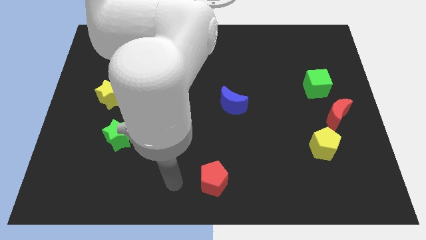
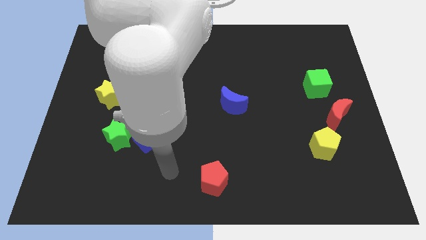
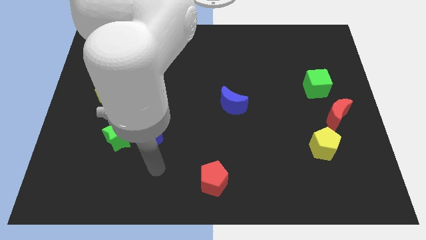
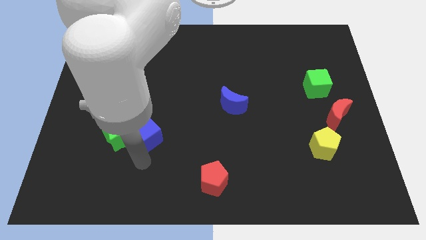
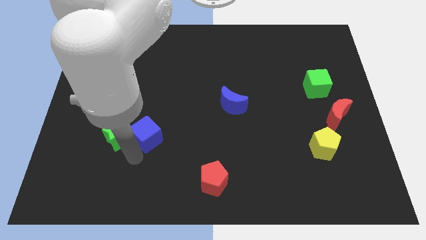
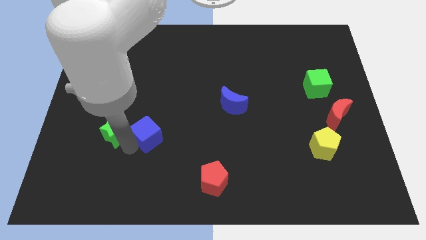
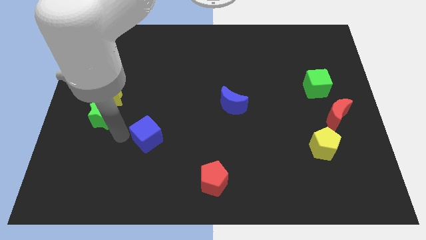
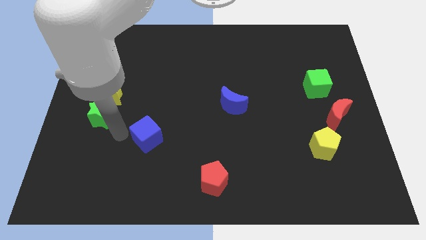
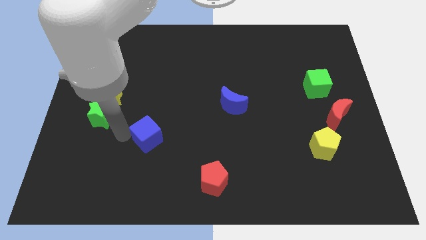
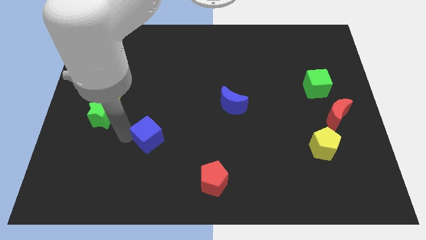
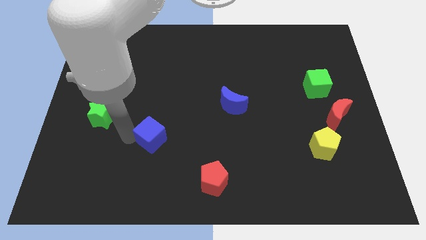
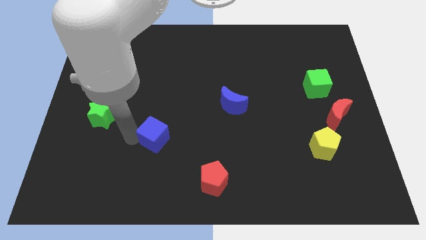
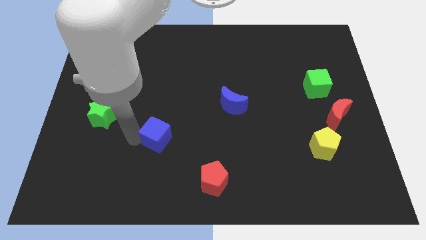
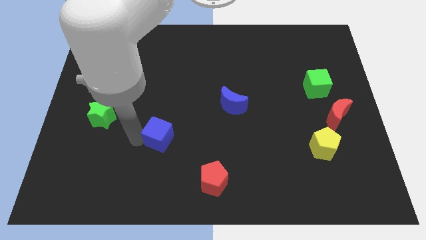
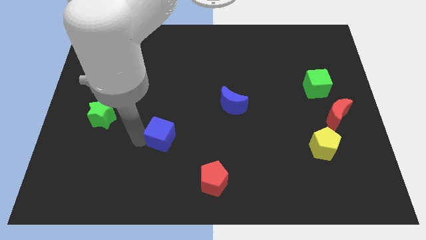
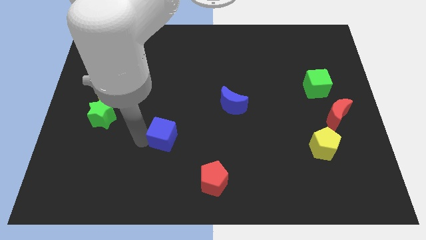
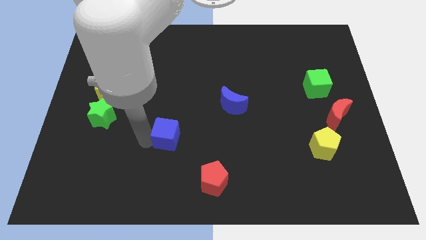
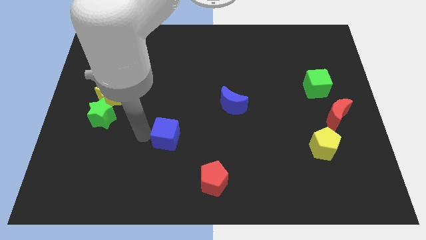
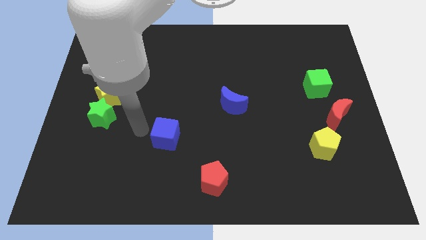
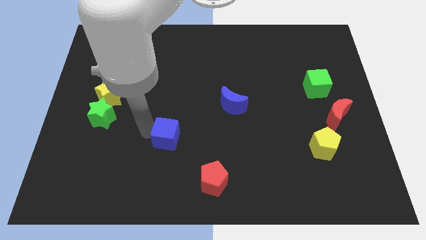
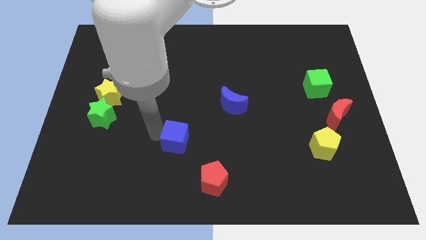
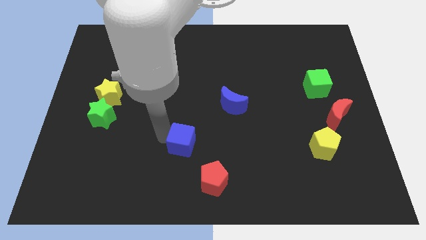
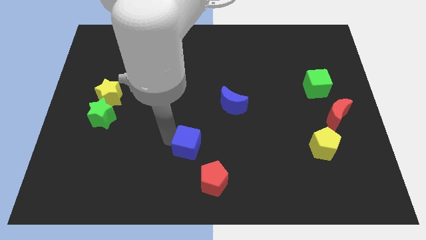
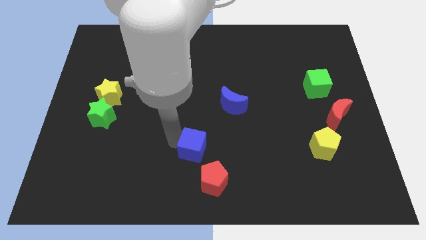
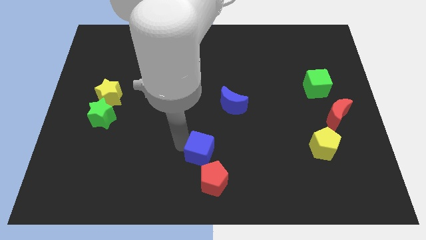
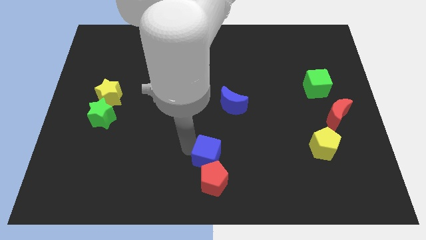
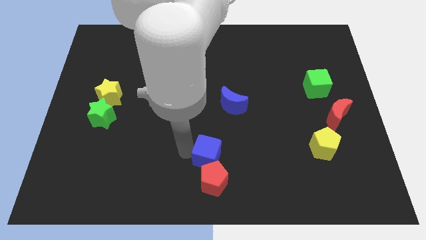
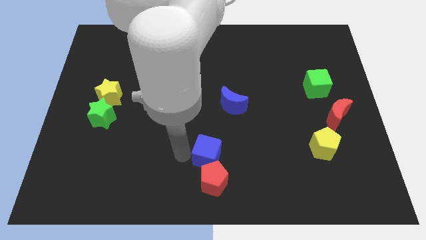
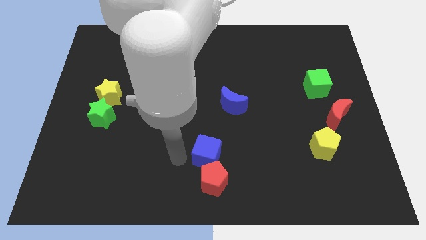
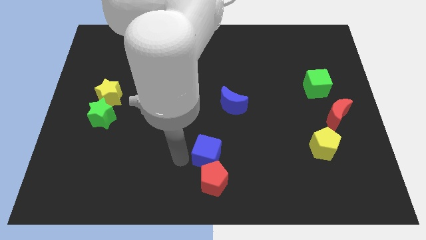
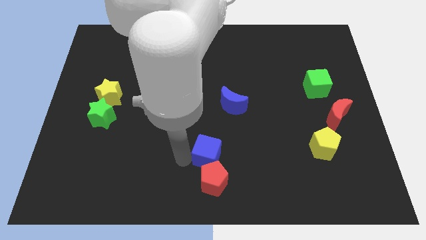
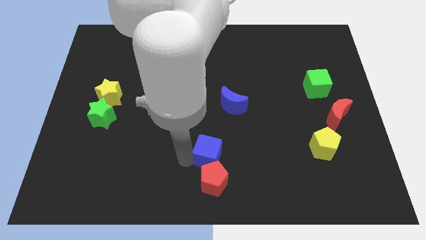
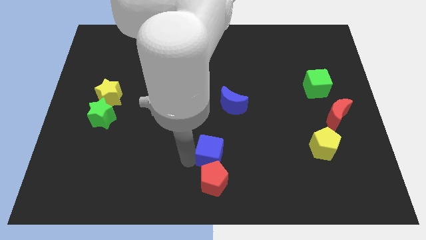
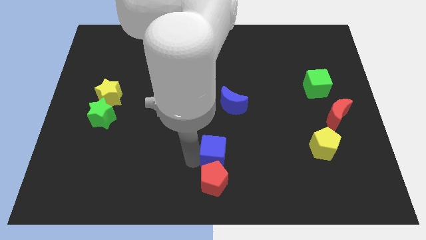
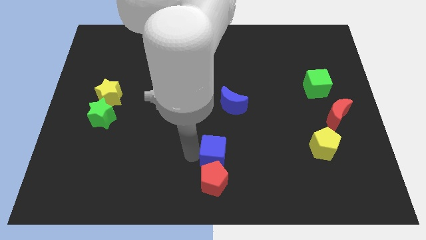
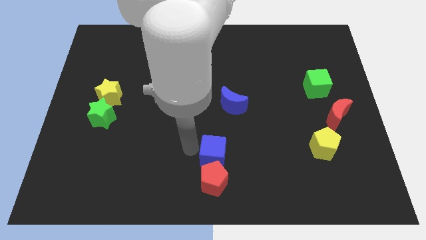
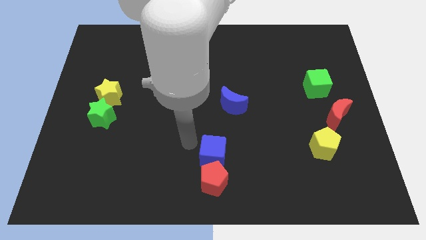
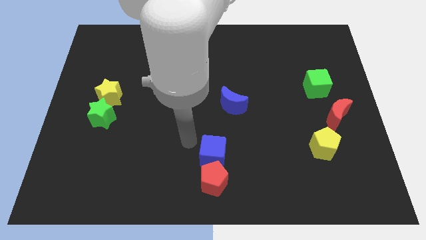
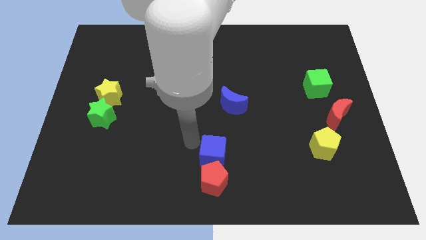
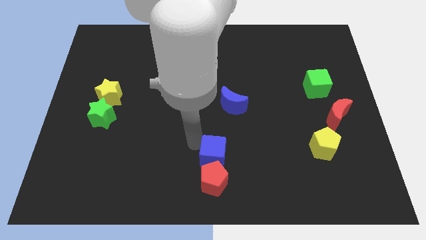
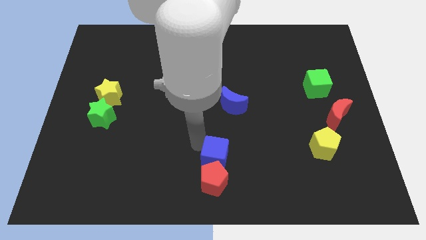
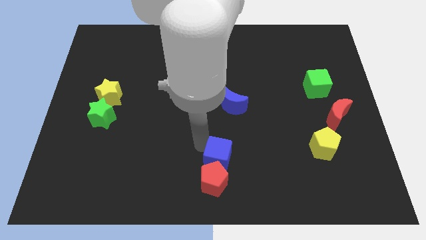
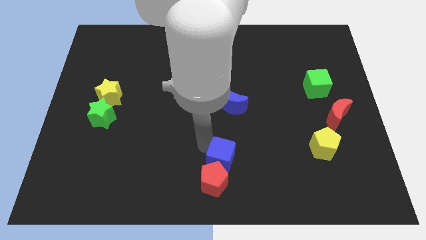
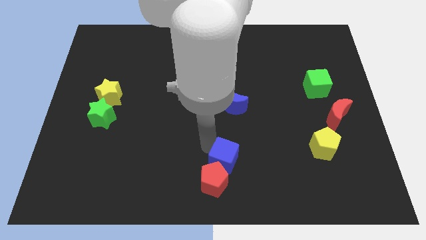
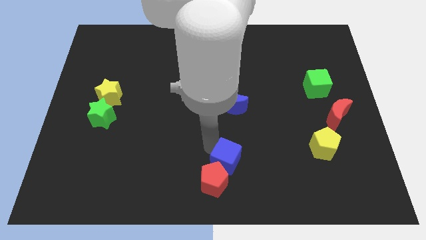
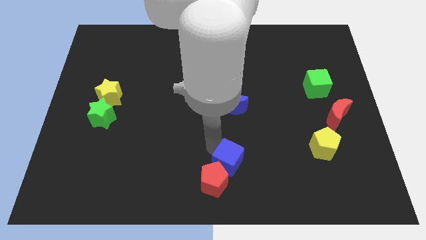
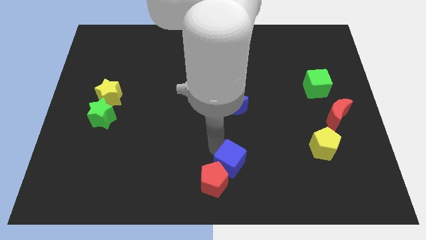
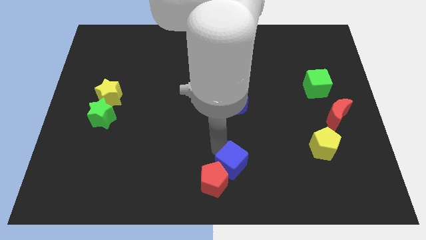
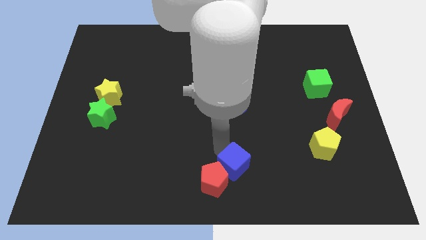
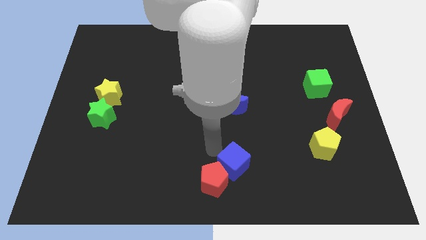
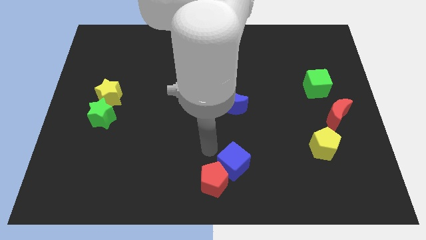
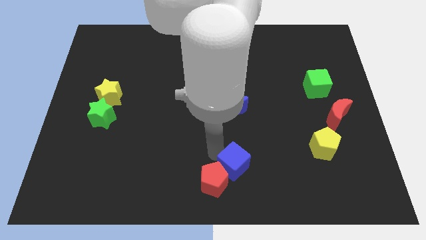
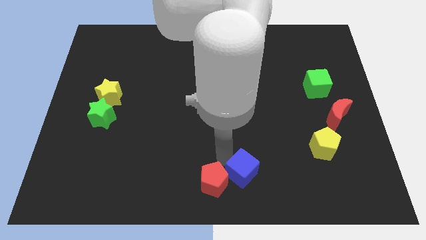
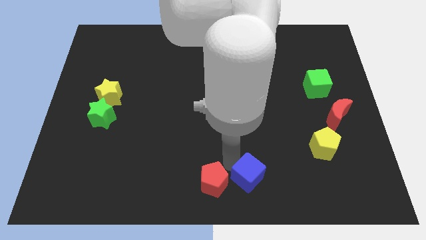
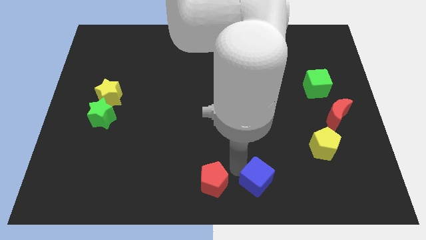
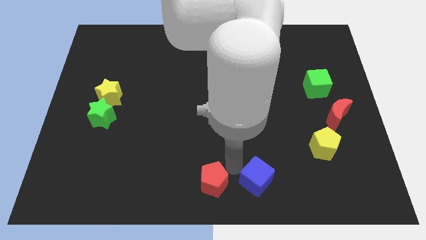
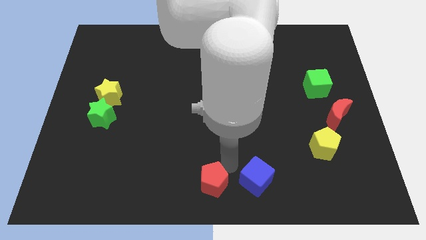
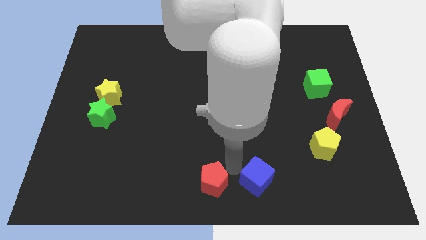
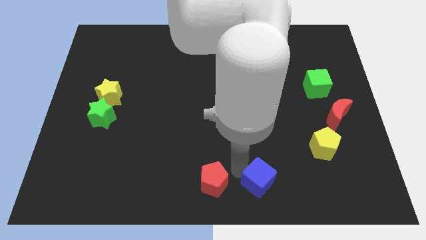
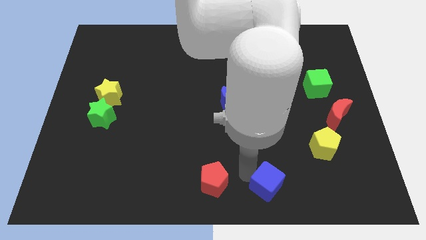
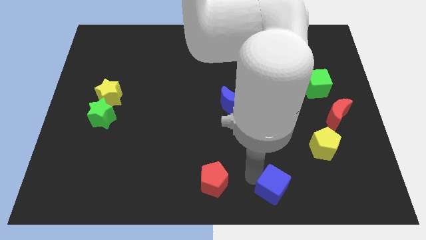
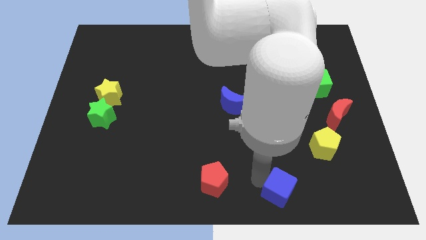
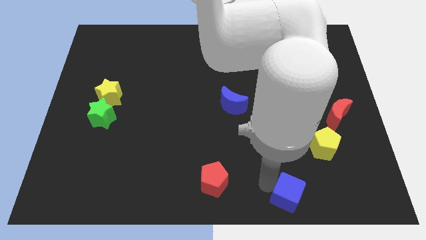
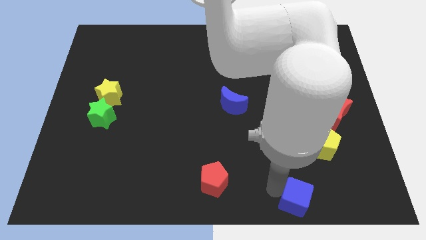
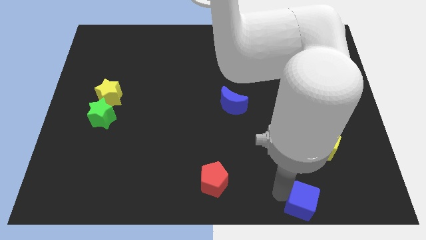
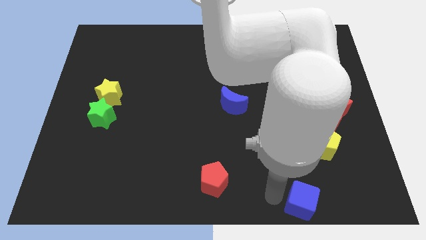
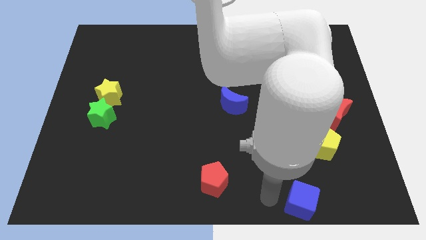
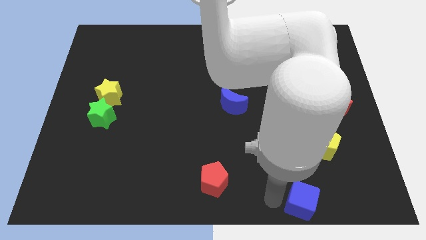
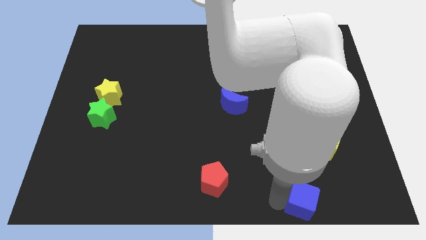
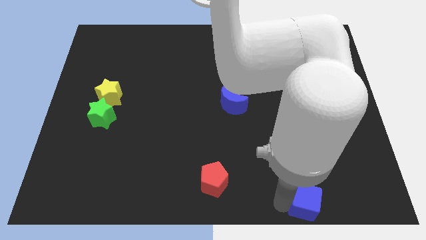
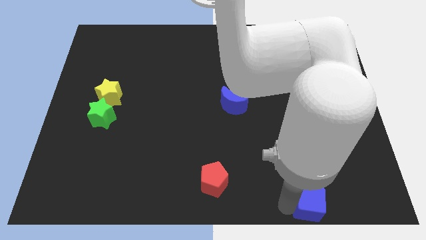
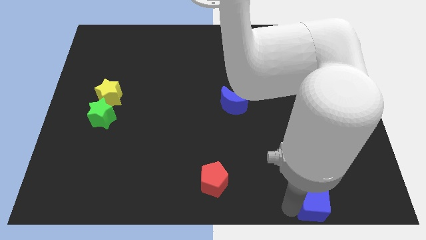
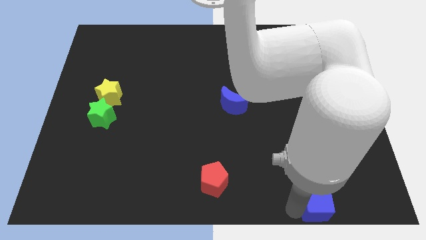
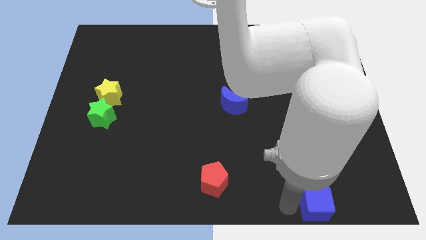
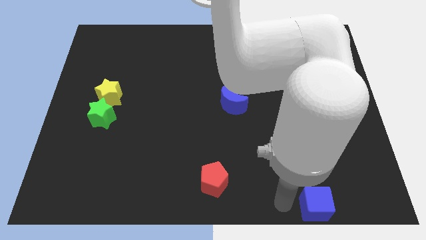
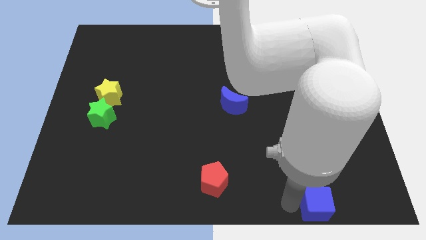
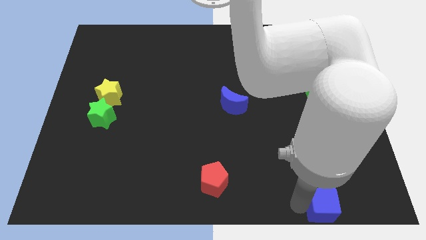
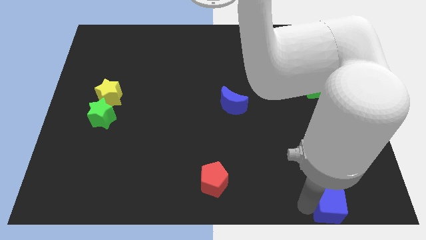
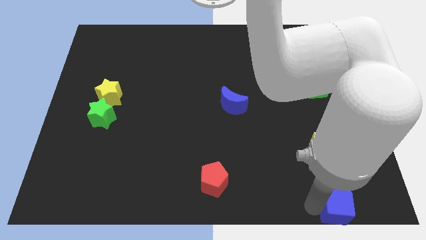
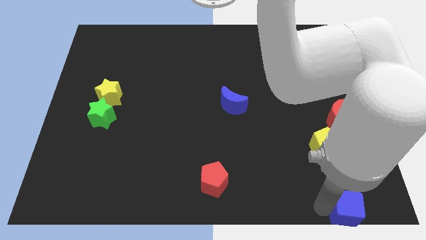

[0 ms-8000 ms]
move the blue cube to the bottom right corner
